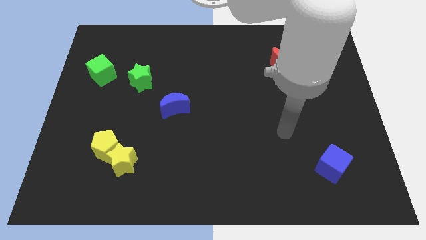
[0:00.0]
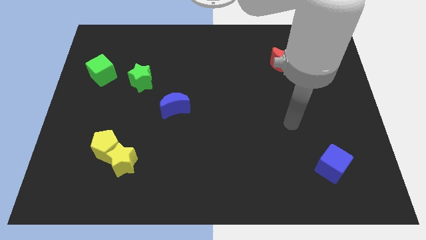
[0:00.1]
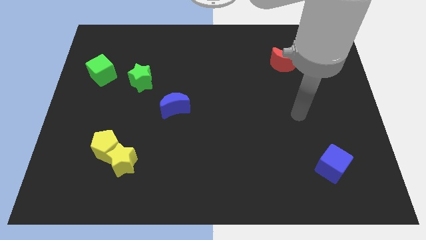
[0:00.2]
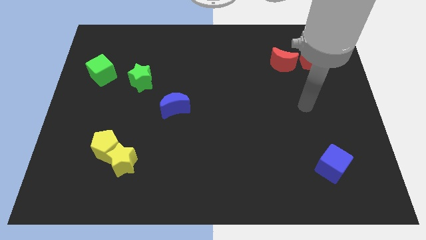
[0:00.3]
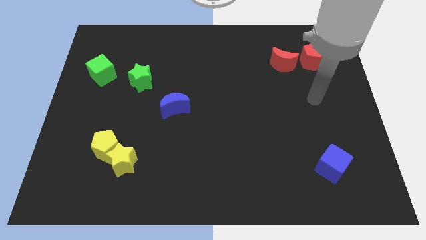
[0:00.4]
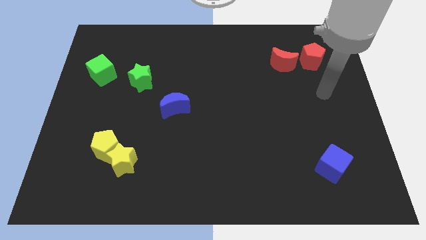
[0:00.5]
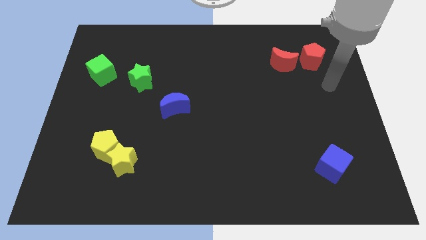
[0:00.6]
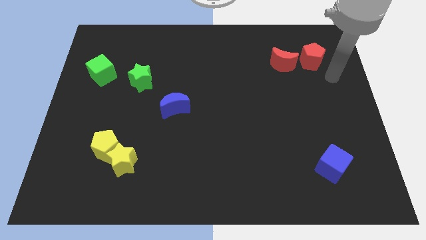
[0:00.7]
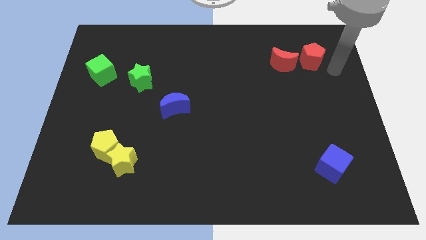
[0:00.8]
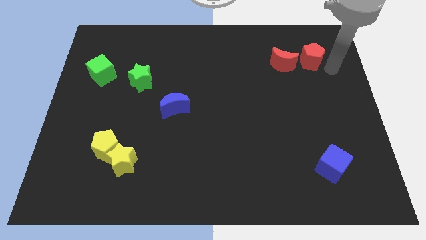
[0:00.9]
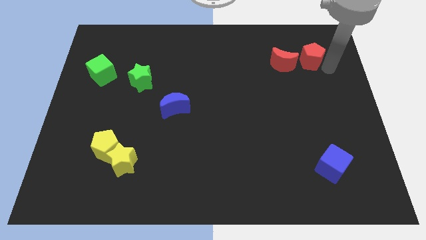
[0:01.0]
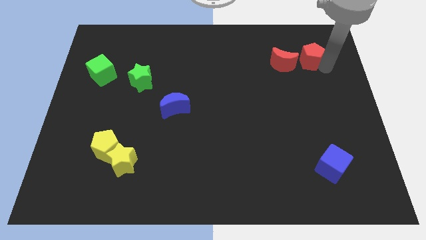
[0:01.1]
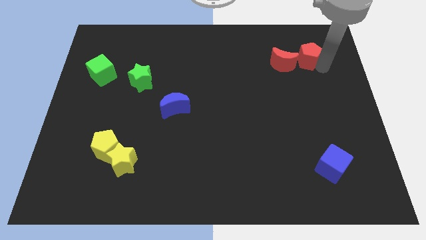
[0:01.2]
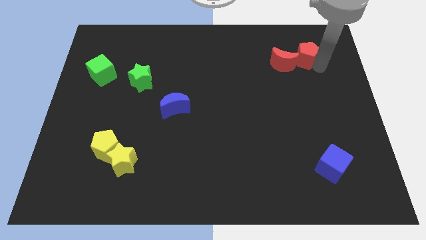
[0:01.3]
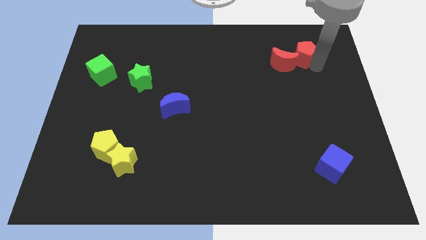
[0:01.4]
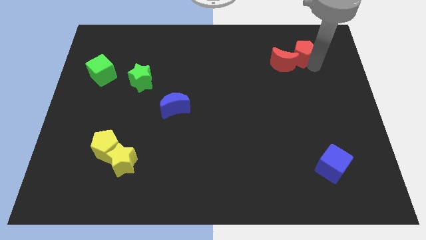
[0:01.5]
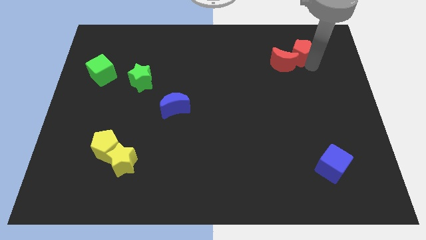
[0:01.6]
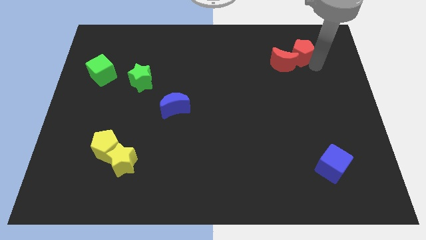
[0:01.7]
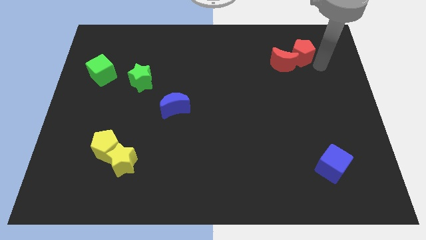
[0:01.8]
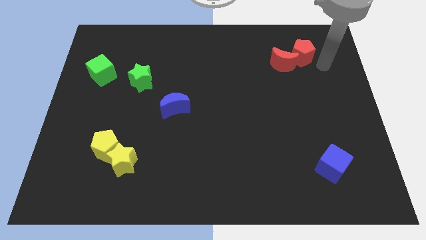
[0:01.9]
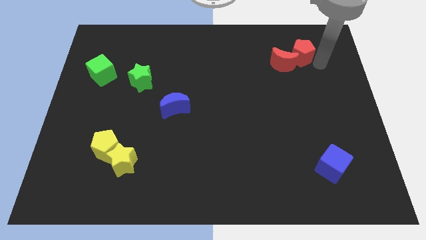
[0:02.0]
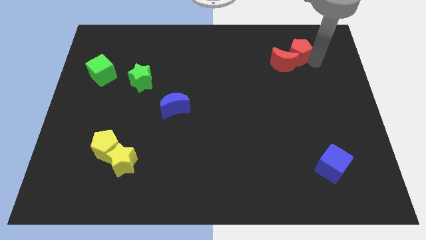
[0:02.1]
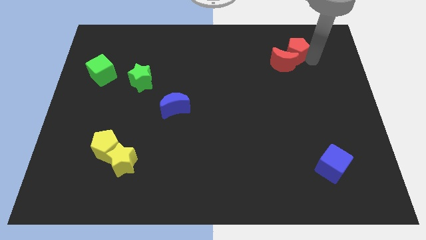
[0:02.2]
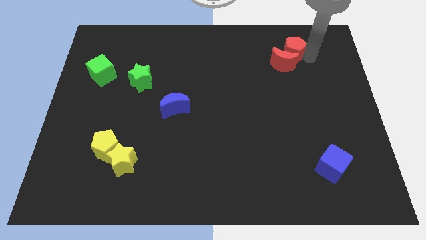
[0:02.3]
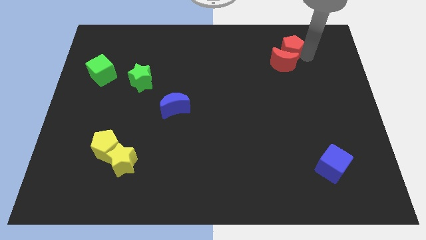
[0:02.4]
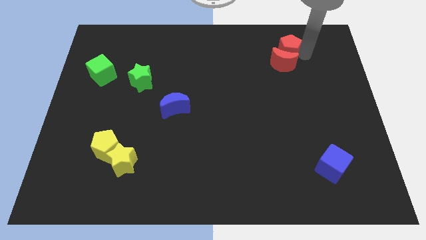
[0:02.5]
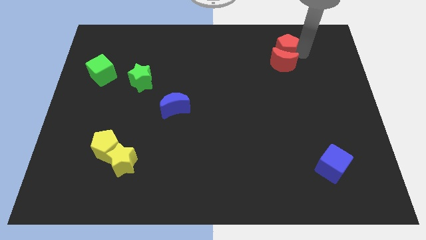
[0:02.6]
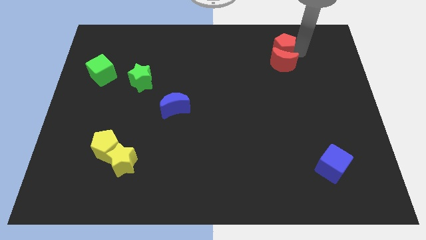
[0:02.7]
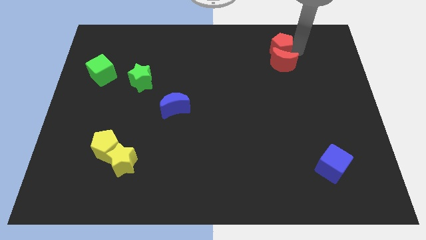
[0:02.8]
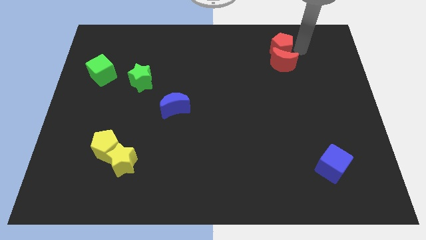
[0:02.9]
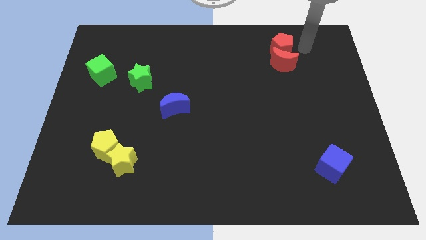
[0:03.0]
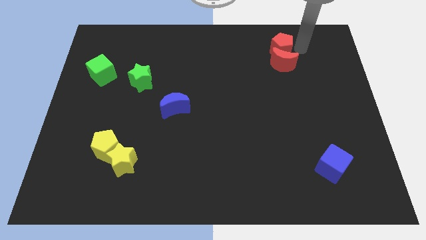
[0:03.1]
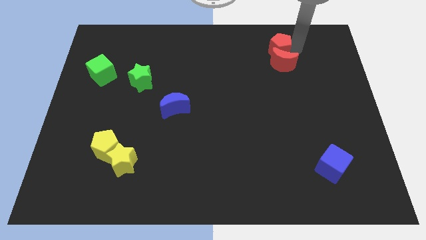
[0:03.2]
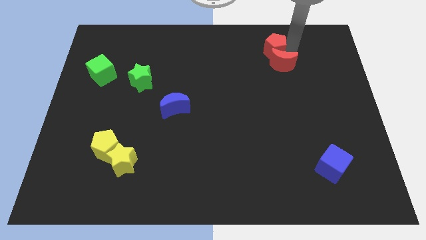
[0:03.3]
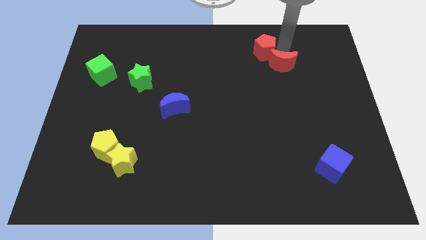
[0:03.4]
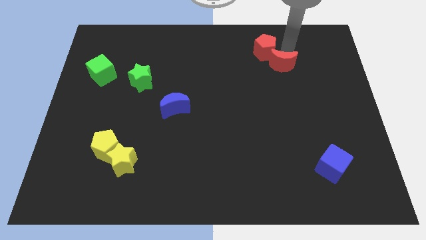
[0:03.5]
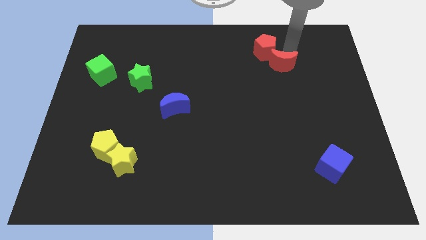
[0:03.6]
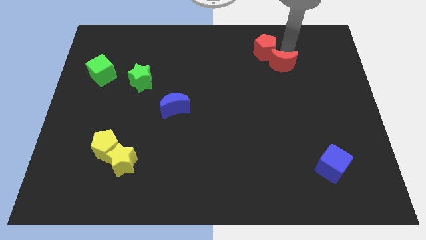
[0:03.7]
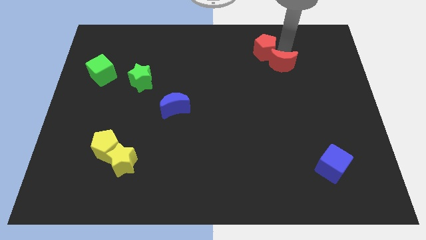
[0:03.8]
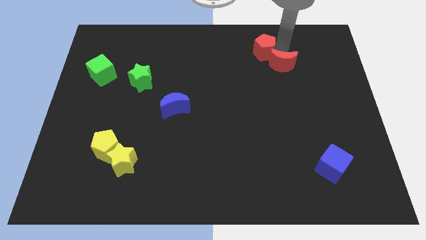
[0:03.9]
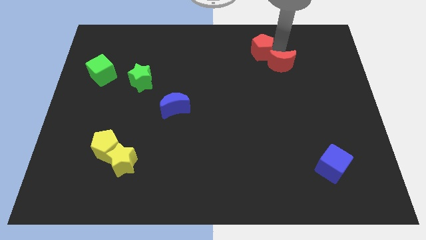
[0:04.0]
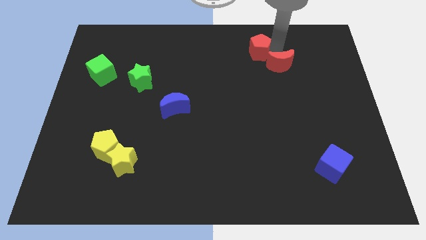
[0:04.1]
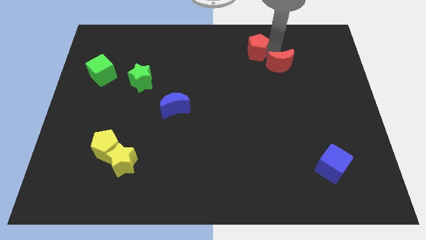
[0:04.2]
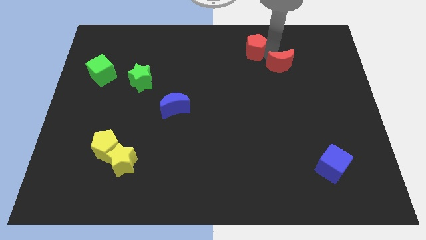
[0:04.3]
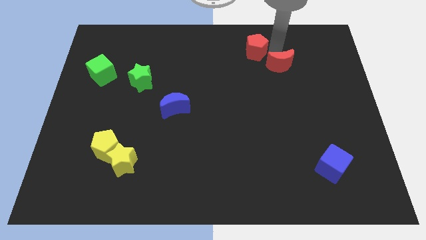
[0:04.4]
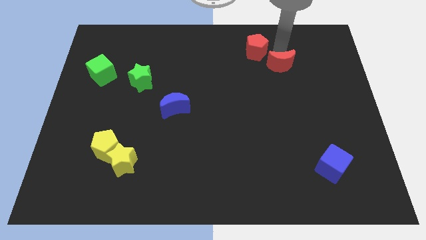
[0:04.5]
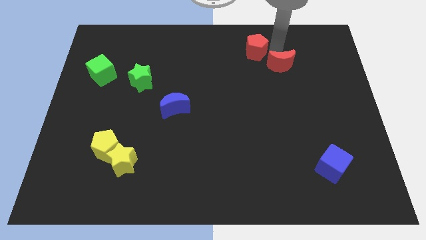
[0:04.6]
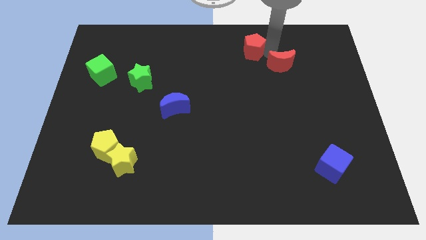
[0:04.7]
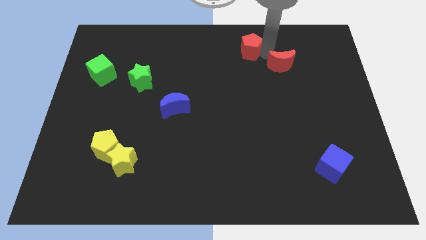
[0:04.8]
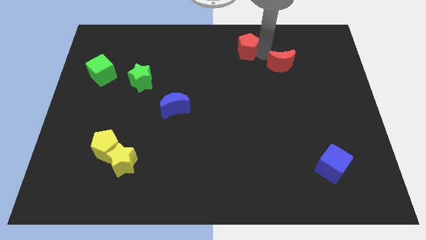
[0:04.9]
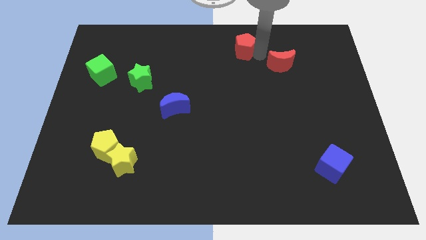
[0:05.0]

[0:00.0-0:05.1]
push the red pentagon to the top side

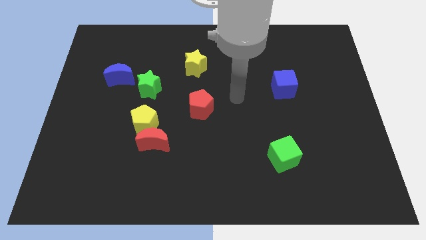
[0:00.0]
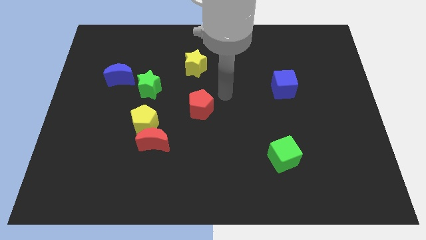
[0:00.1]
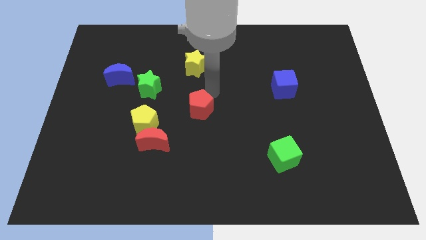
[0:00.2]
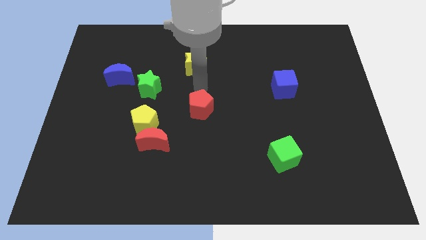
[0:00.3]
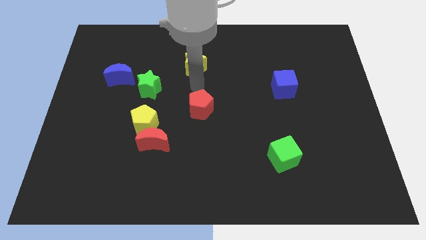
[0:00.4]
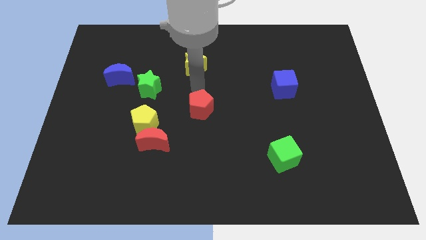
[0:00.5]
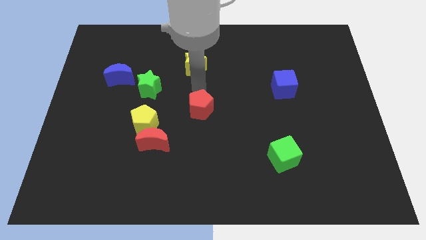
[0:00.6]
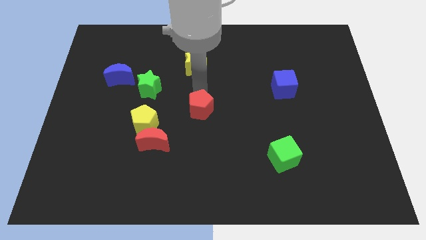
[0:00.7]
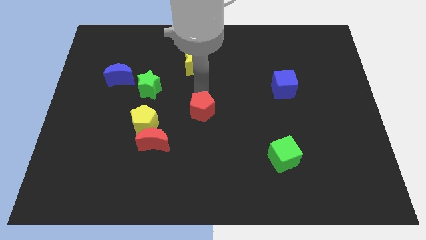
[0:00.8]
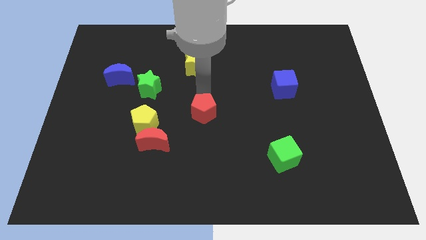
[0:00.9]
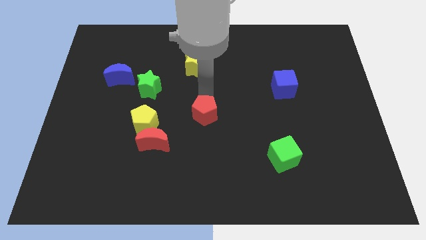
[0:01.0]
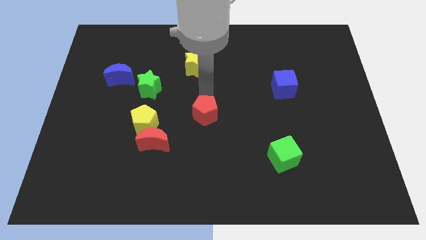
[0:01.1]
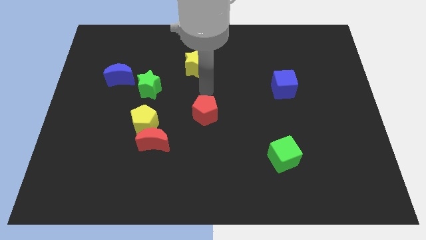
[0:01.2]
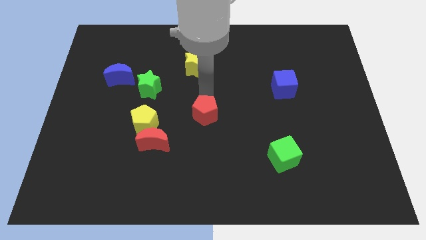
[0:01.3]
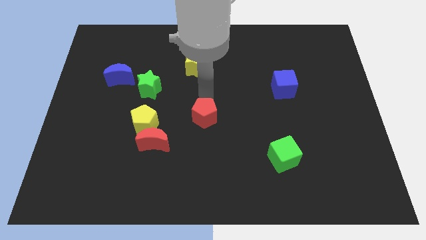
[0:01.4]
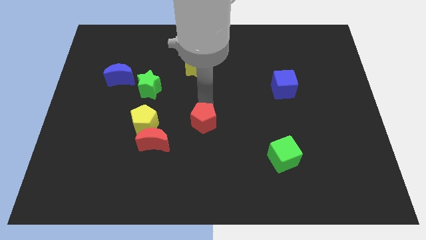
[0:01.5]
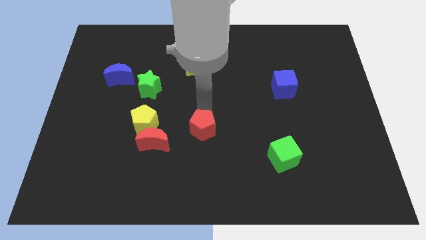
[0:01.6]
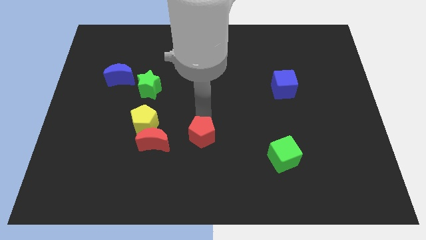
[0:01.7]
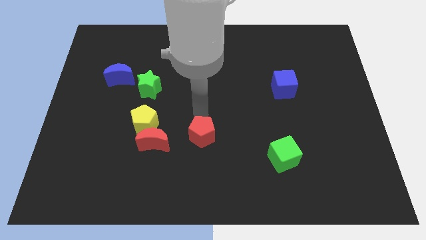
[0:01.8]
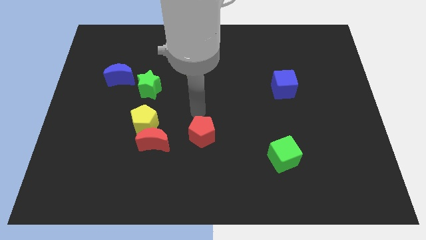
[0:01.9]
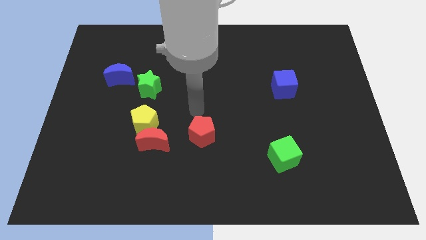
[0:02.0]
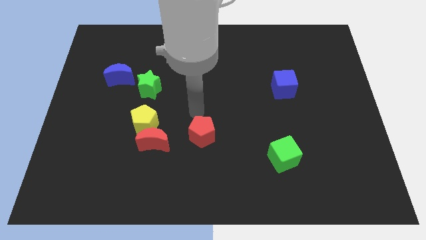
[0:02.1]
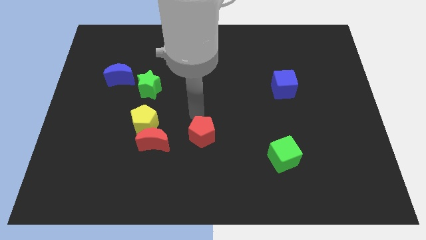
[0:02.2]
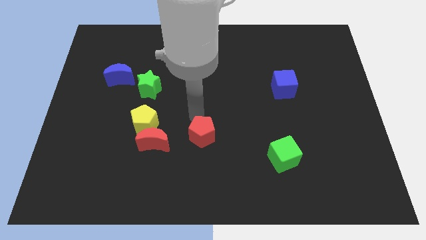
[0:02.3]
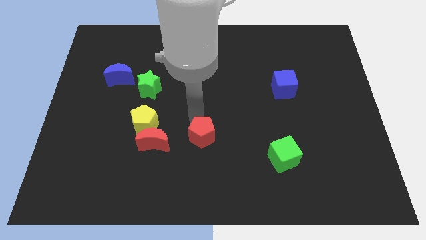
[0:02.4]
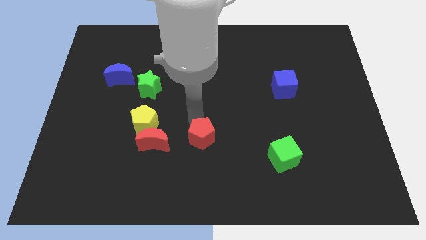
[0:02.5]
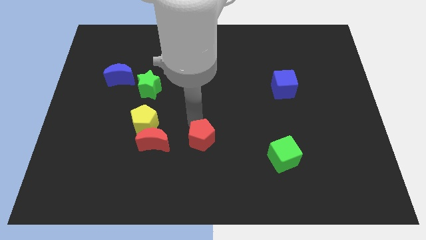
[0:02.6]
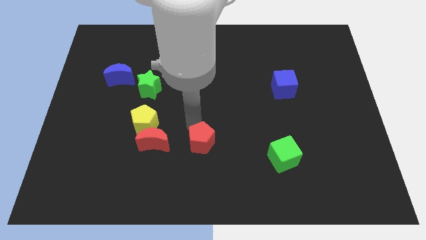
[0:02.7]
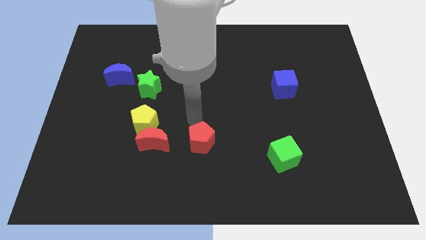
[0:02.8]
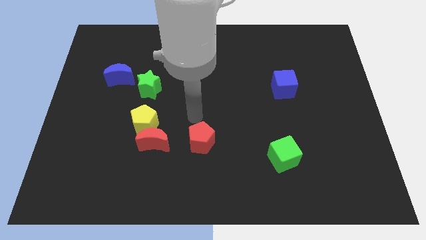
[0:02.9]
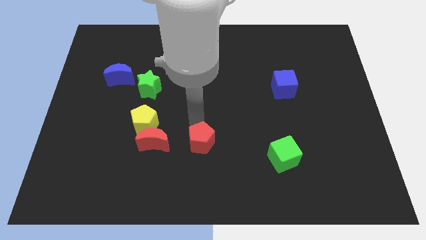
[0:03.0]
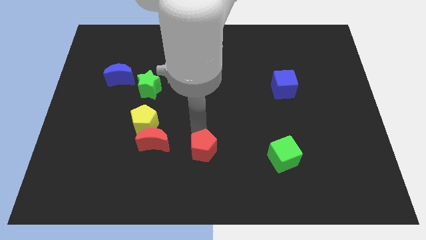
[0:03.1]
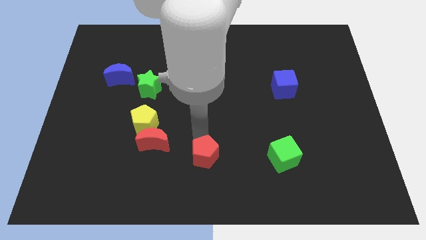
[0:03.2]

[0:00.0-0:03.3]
slide the red pentagon to the bottom
